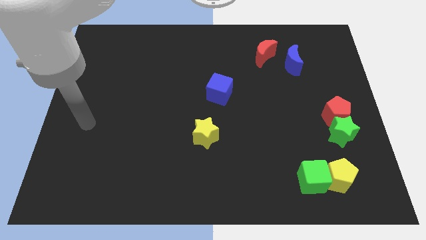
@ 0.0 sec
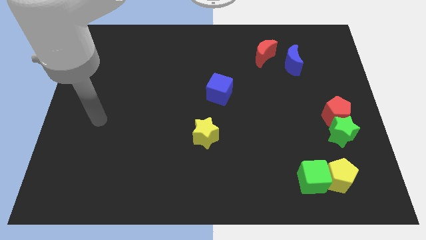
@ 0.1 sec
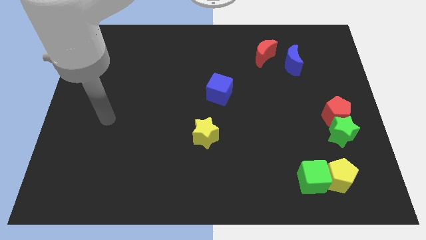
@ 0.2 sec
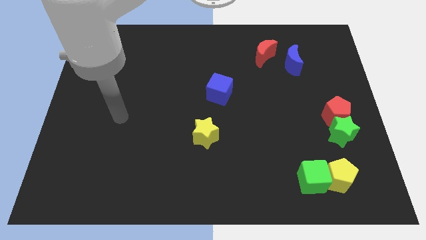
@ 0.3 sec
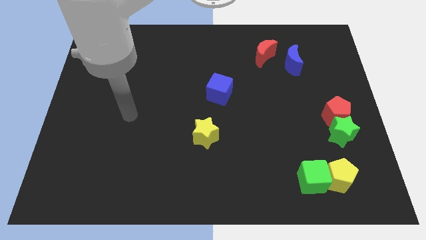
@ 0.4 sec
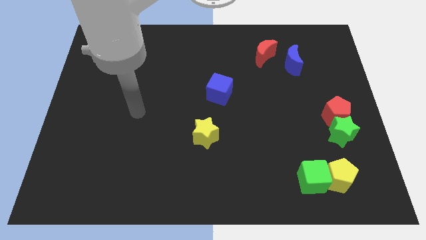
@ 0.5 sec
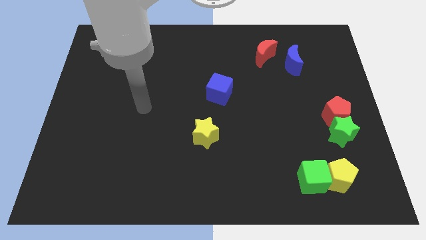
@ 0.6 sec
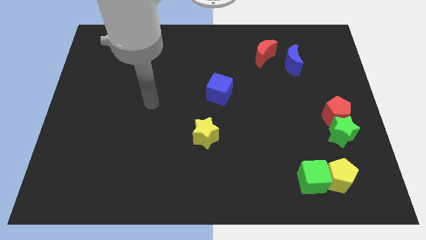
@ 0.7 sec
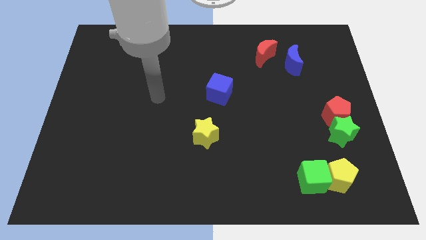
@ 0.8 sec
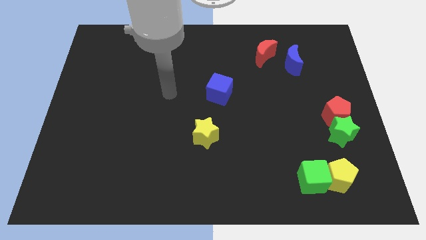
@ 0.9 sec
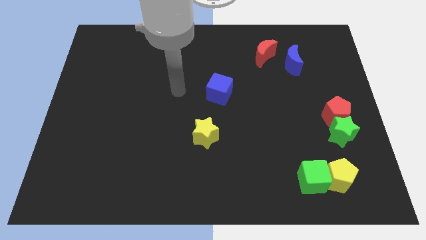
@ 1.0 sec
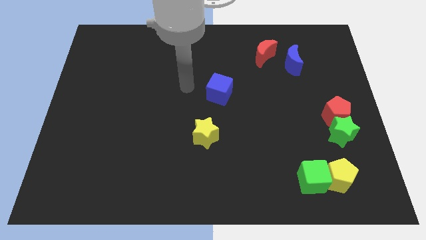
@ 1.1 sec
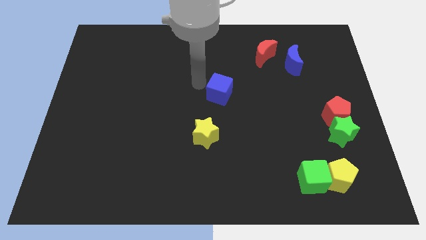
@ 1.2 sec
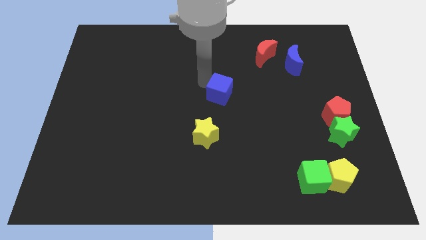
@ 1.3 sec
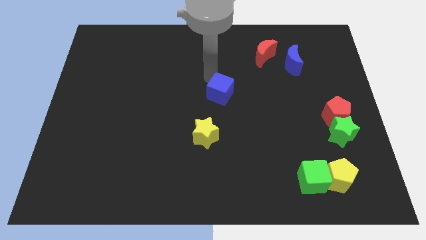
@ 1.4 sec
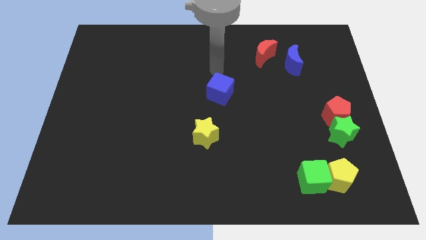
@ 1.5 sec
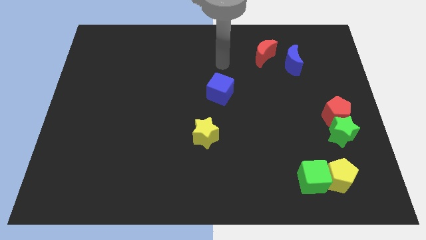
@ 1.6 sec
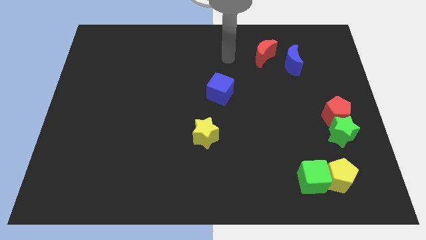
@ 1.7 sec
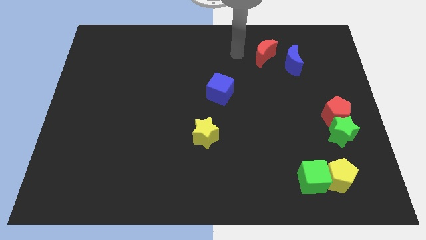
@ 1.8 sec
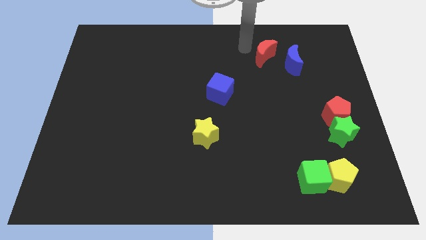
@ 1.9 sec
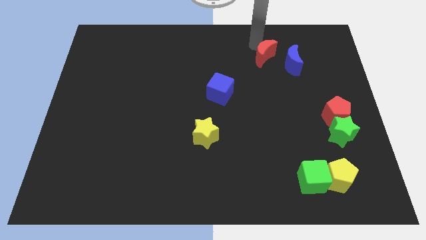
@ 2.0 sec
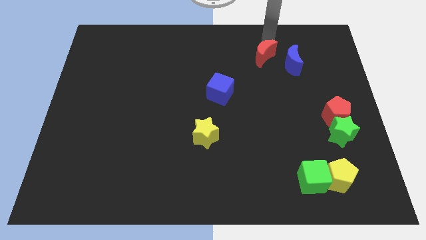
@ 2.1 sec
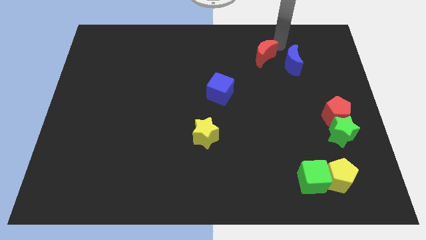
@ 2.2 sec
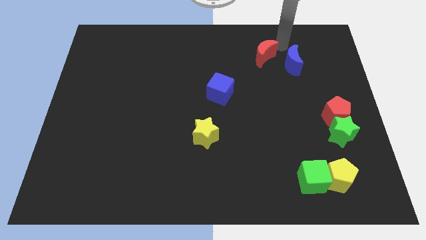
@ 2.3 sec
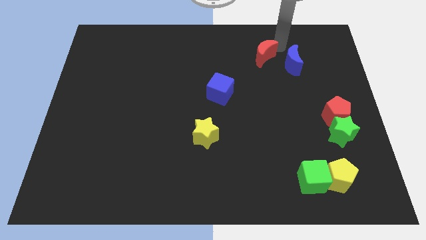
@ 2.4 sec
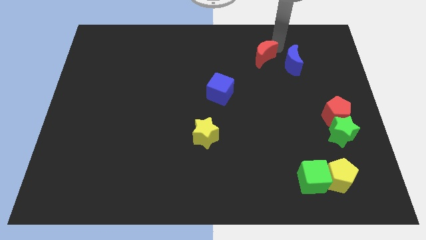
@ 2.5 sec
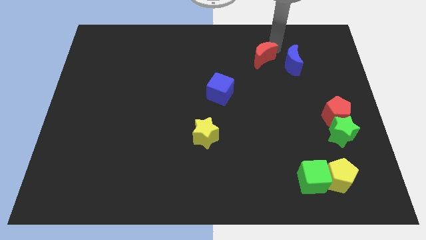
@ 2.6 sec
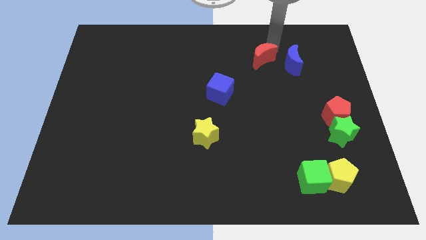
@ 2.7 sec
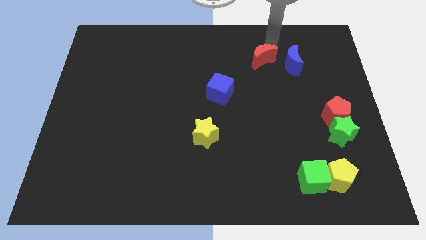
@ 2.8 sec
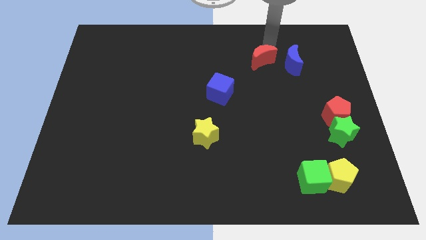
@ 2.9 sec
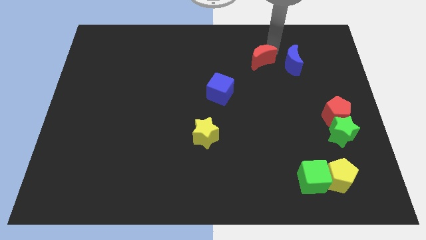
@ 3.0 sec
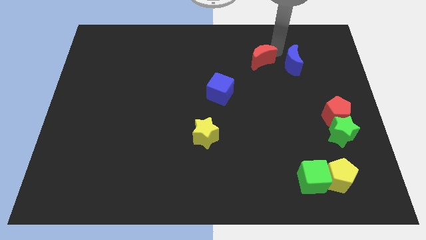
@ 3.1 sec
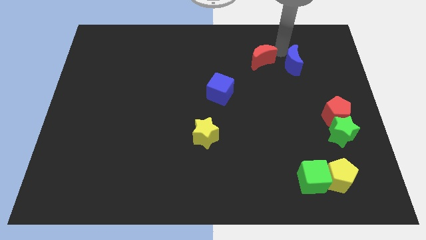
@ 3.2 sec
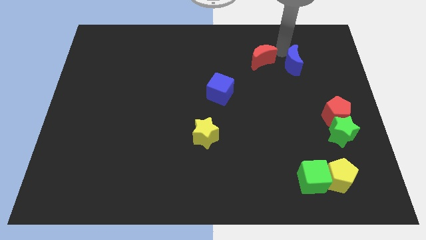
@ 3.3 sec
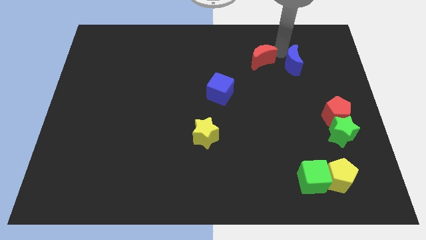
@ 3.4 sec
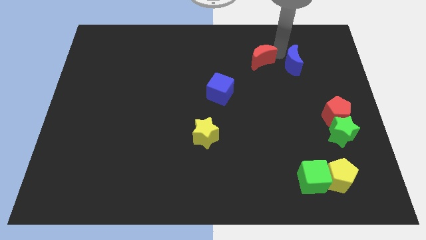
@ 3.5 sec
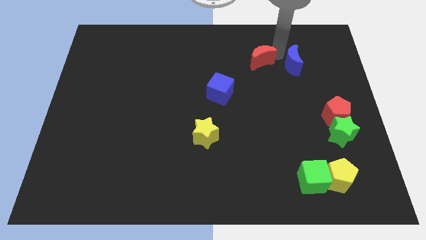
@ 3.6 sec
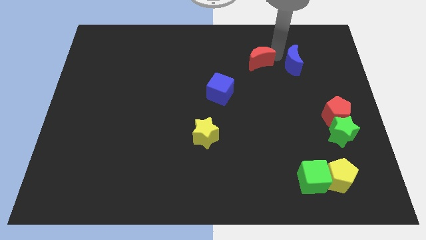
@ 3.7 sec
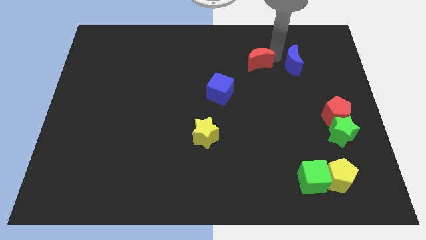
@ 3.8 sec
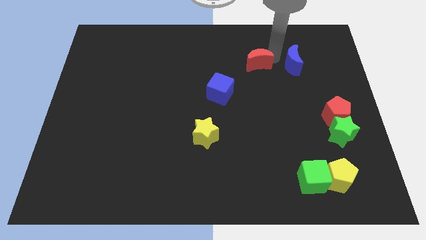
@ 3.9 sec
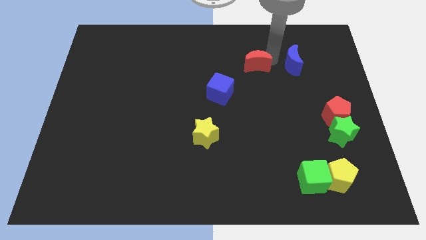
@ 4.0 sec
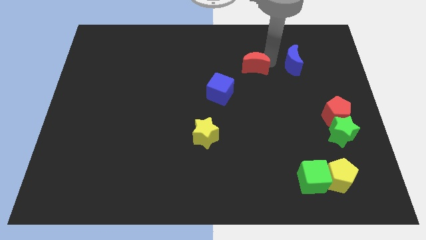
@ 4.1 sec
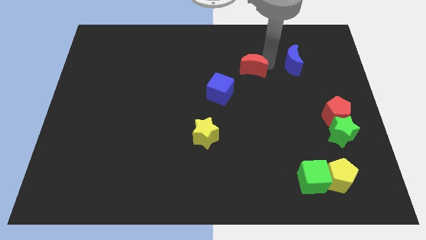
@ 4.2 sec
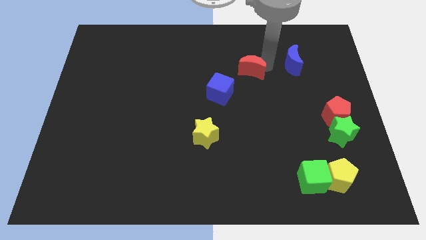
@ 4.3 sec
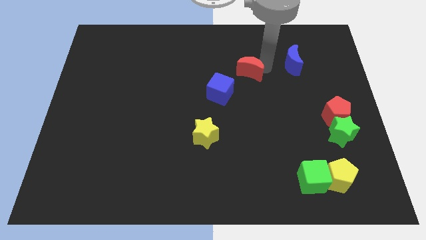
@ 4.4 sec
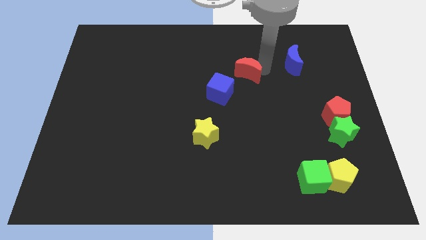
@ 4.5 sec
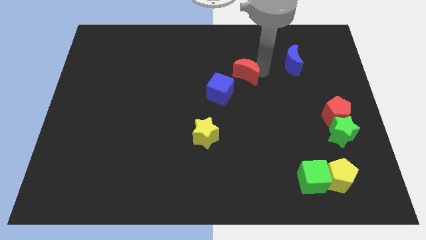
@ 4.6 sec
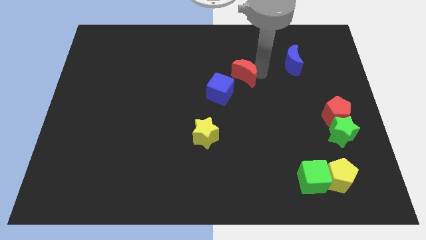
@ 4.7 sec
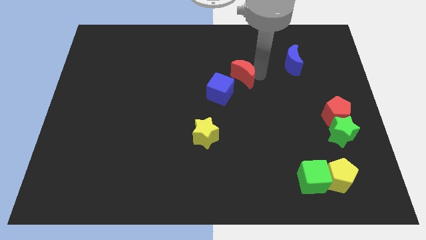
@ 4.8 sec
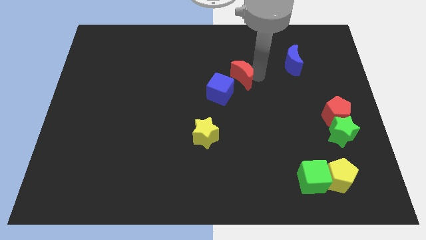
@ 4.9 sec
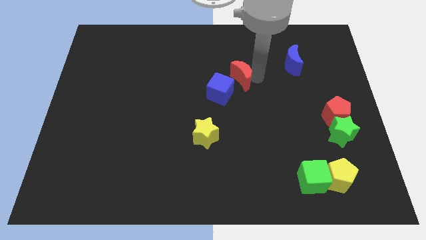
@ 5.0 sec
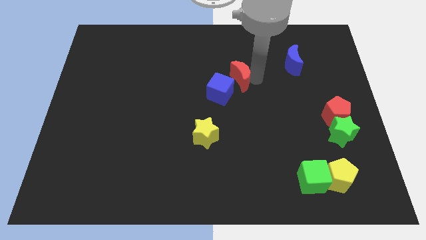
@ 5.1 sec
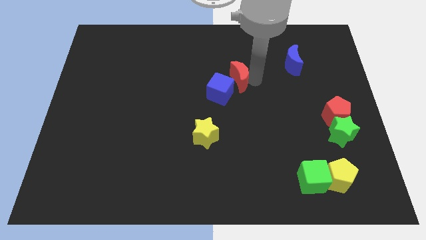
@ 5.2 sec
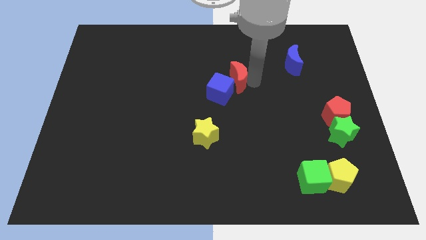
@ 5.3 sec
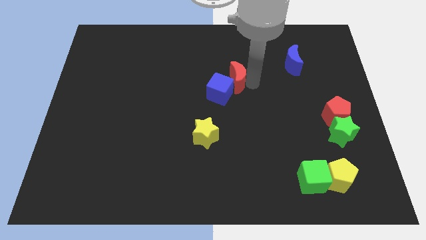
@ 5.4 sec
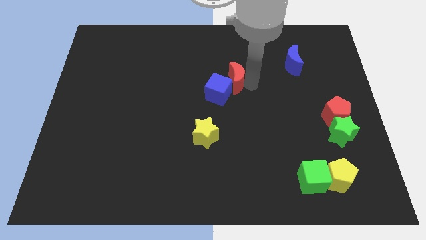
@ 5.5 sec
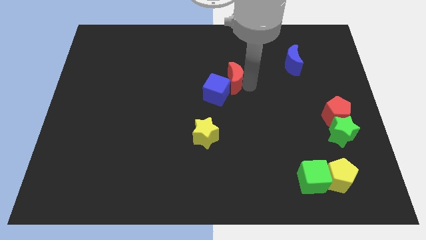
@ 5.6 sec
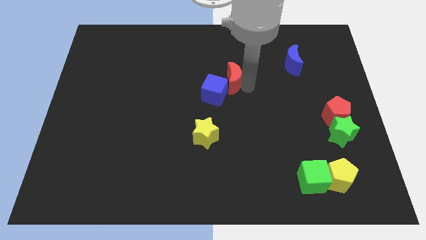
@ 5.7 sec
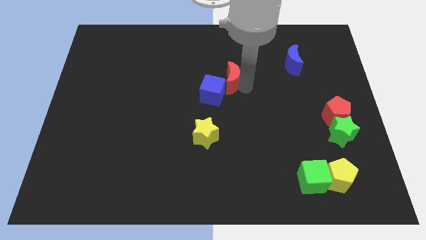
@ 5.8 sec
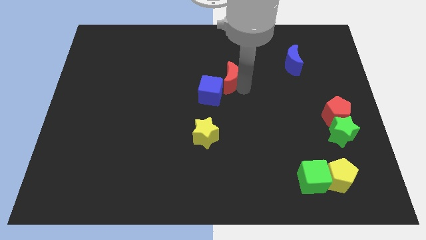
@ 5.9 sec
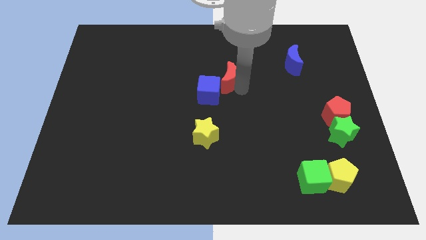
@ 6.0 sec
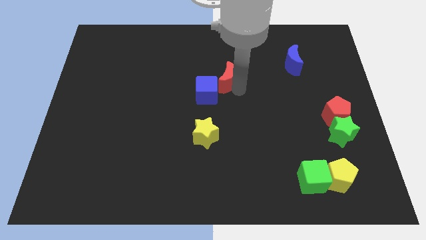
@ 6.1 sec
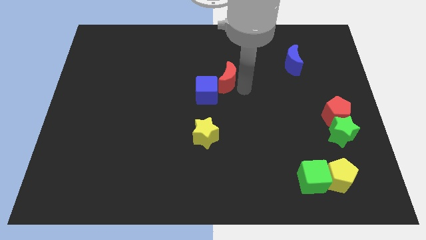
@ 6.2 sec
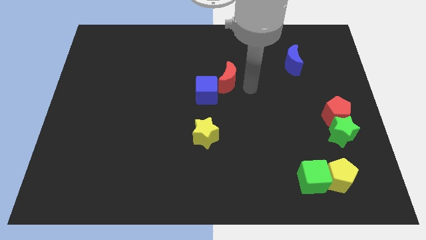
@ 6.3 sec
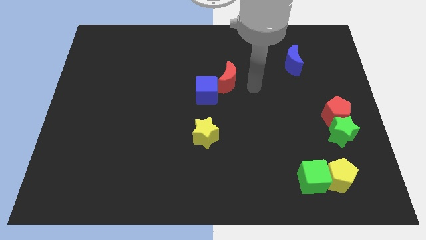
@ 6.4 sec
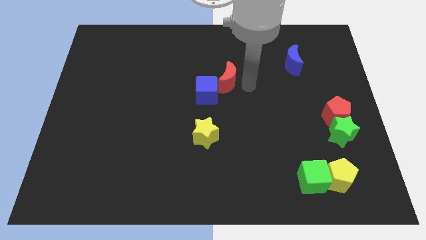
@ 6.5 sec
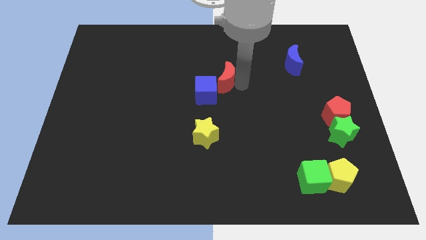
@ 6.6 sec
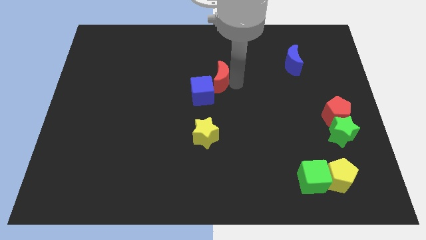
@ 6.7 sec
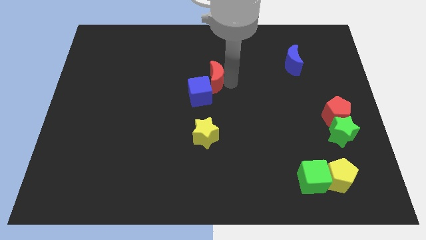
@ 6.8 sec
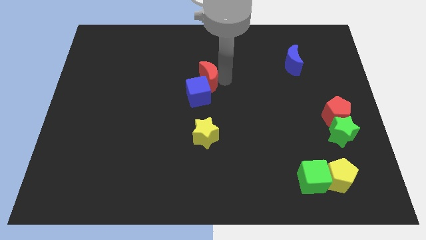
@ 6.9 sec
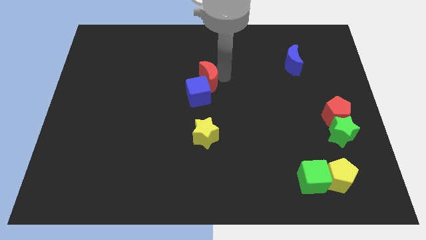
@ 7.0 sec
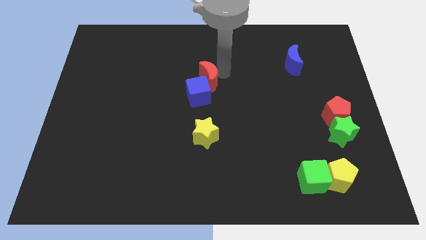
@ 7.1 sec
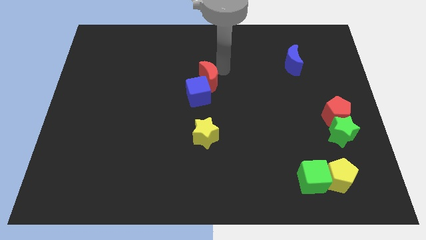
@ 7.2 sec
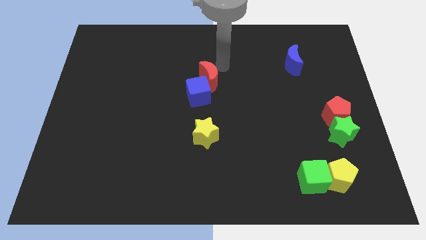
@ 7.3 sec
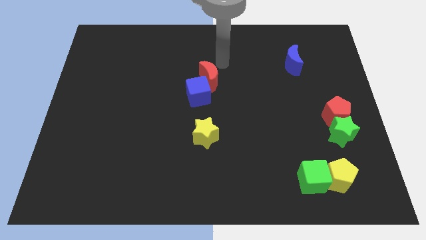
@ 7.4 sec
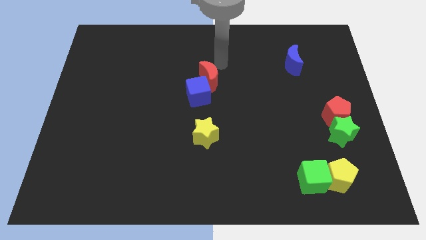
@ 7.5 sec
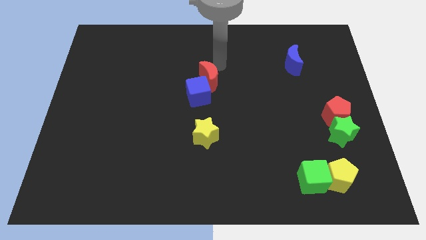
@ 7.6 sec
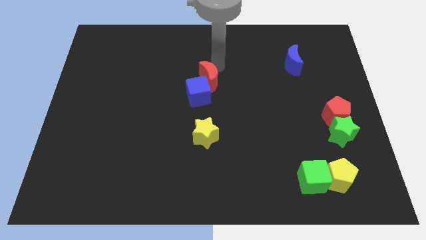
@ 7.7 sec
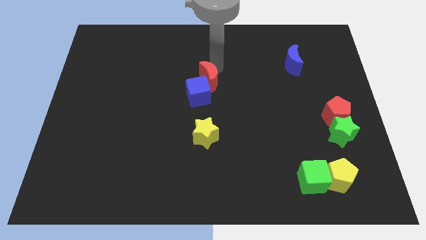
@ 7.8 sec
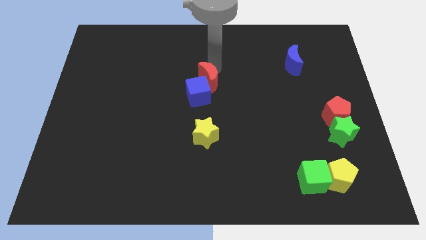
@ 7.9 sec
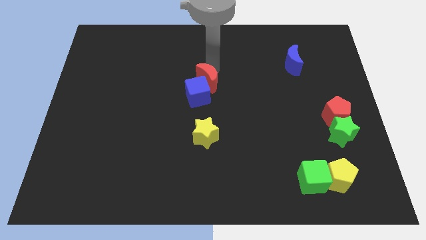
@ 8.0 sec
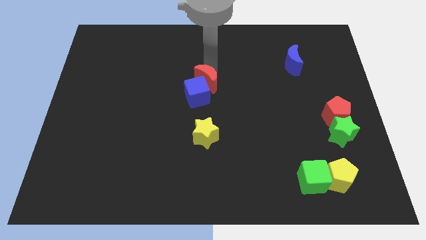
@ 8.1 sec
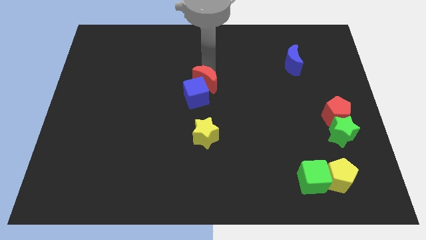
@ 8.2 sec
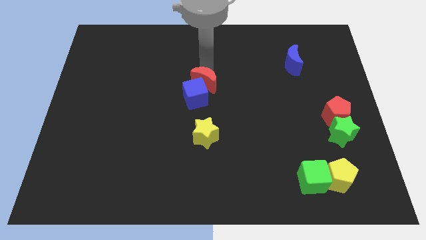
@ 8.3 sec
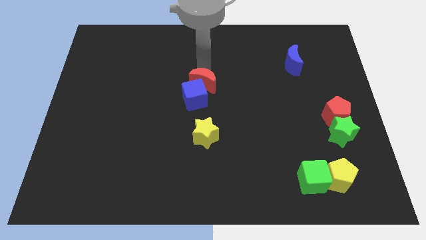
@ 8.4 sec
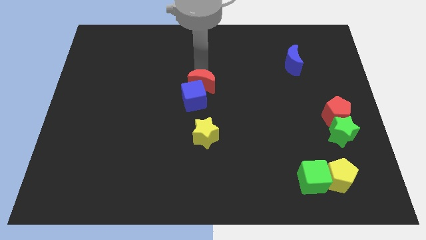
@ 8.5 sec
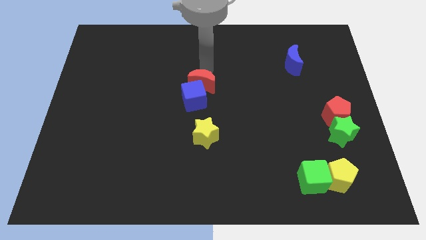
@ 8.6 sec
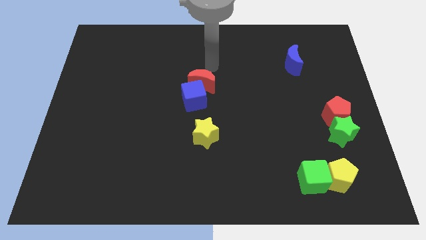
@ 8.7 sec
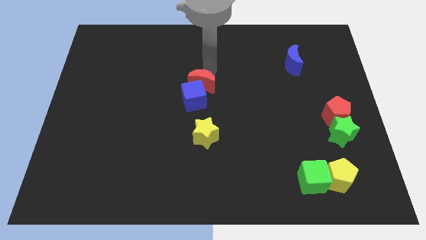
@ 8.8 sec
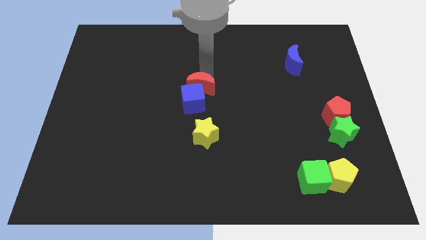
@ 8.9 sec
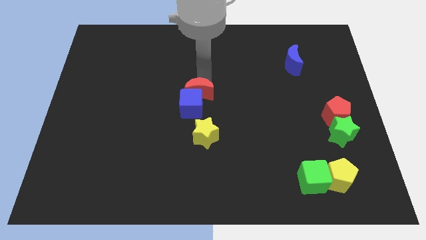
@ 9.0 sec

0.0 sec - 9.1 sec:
push the red moon downwards and left diagonally
